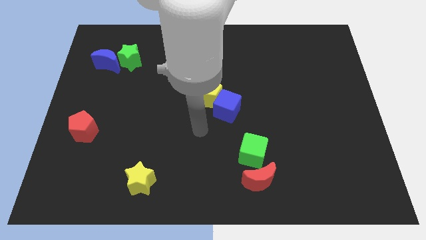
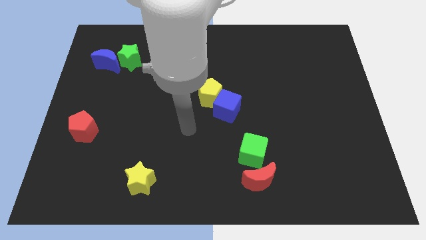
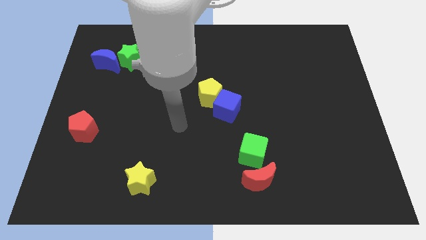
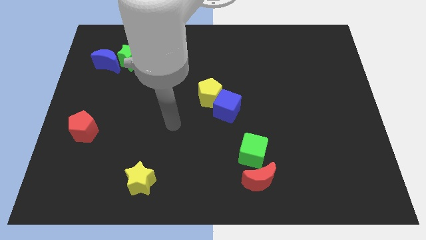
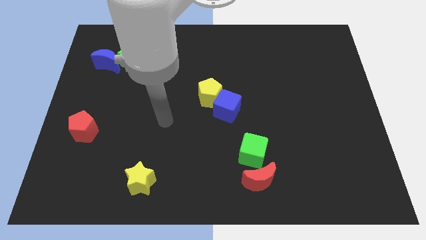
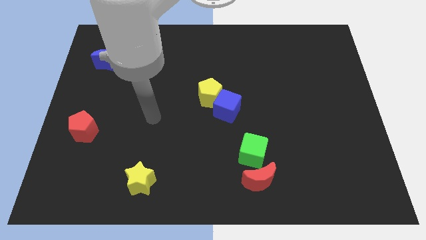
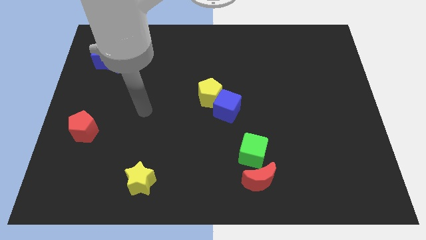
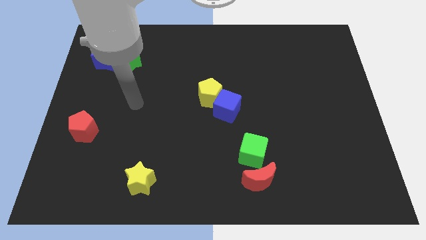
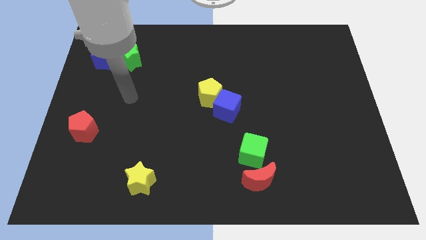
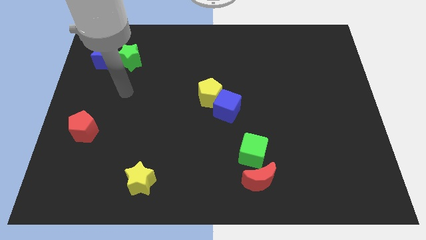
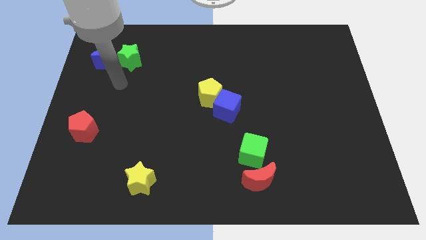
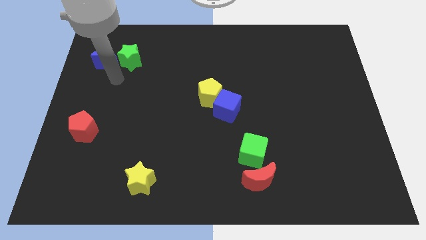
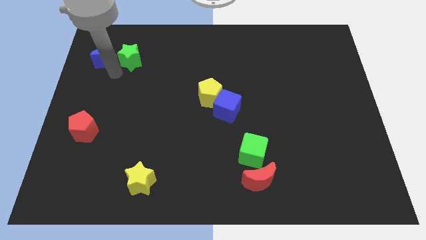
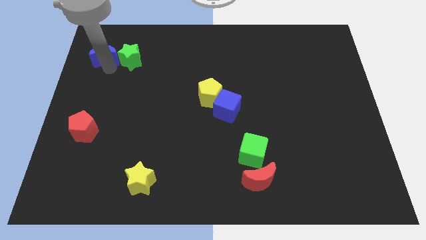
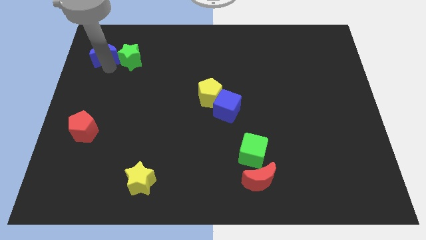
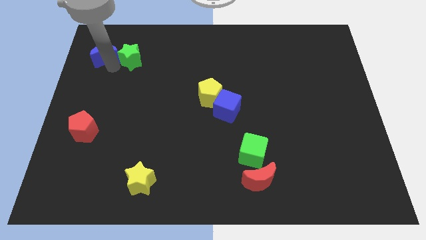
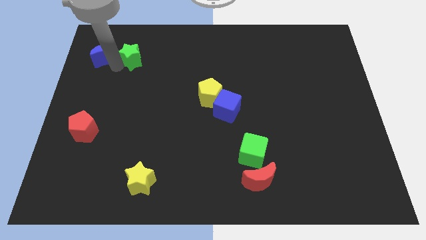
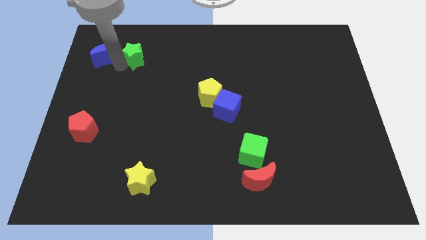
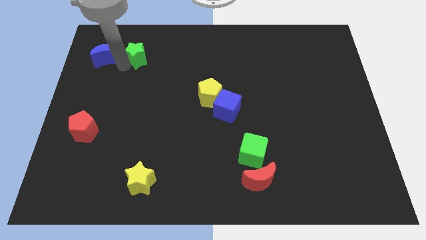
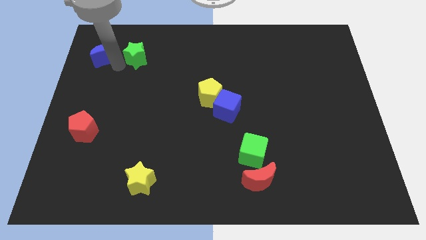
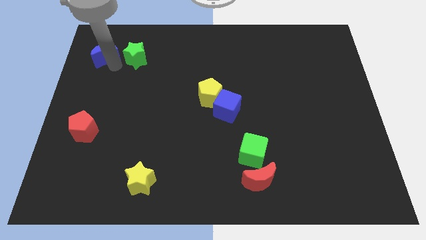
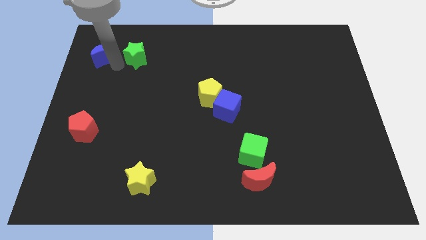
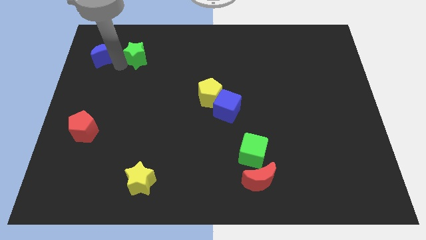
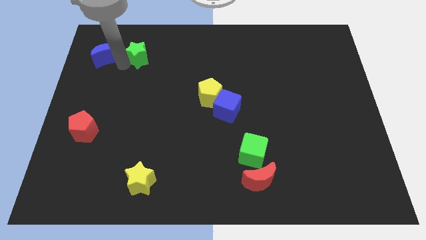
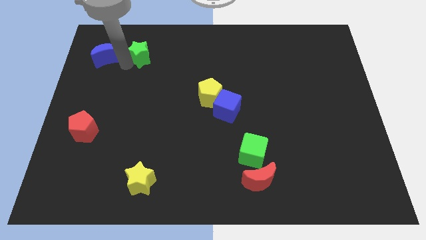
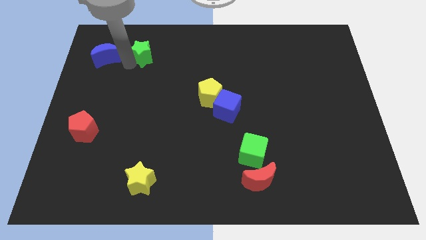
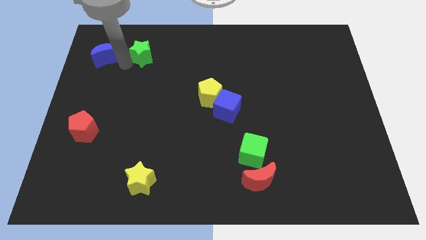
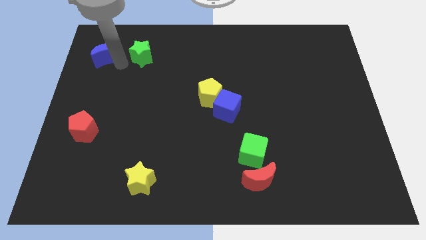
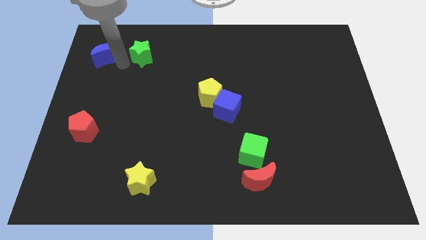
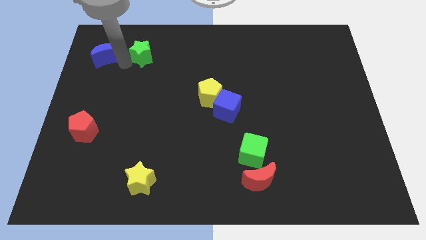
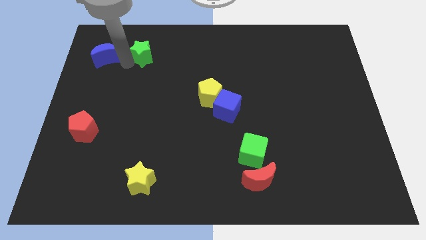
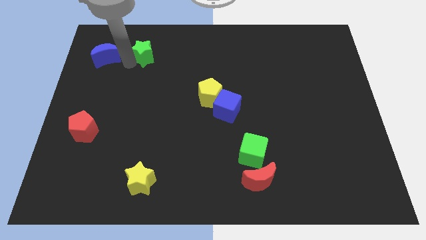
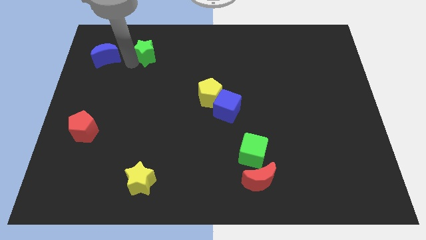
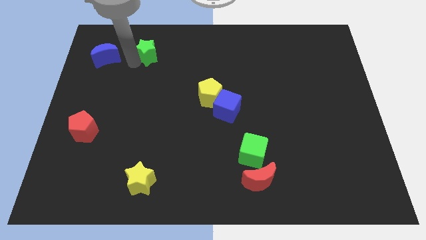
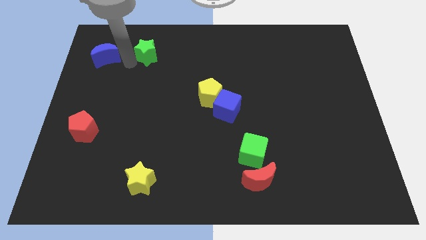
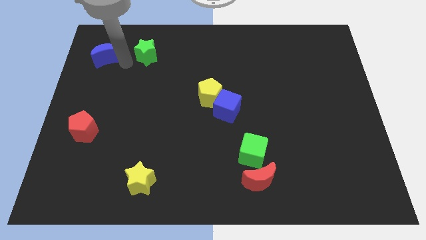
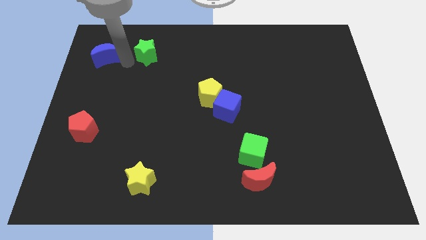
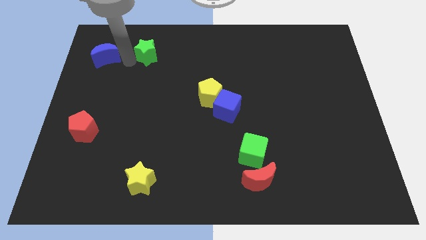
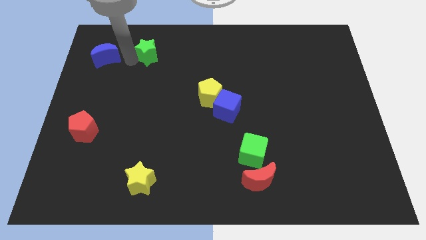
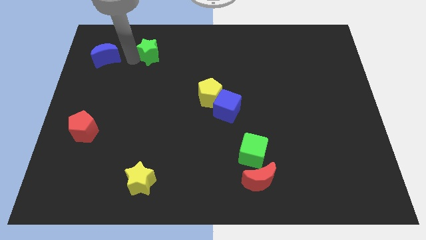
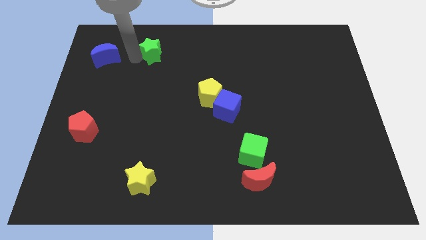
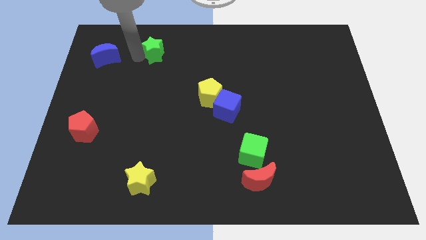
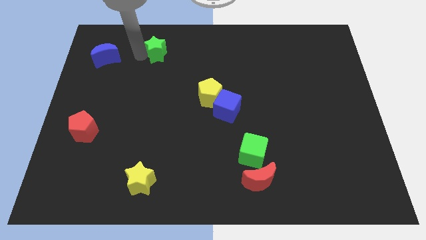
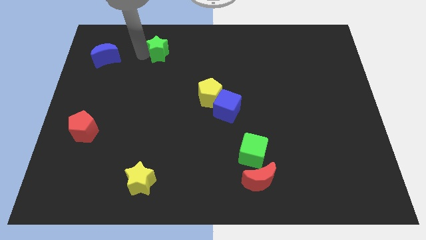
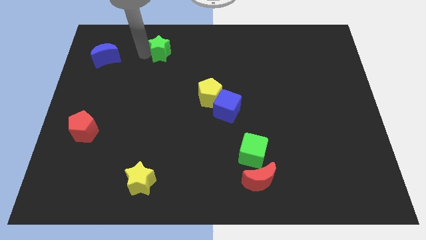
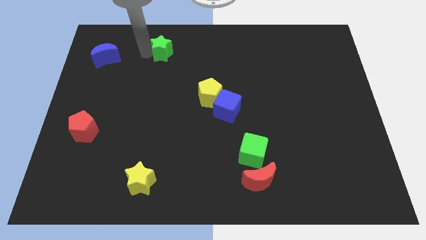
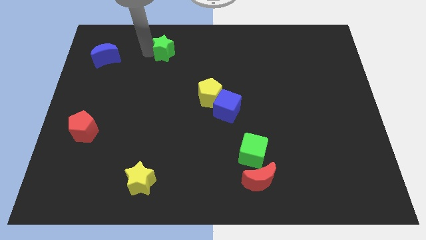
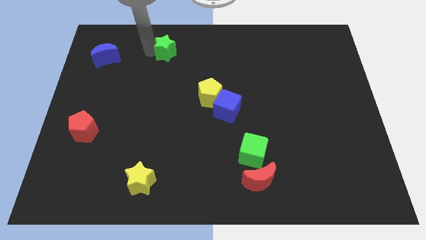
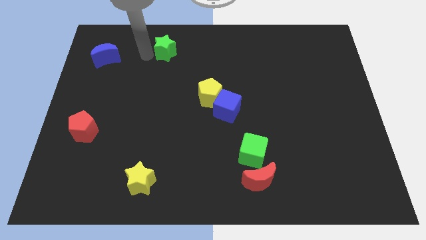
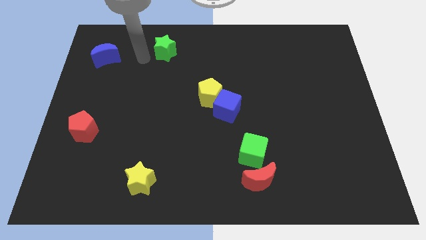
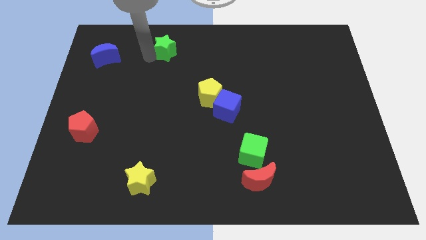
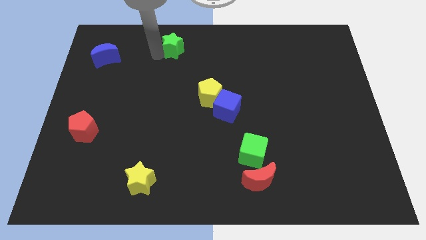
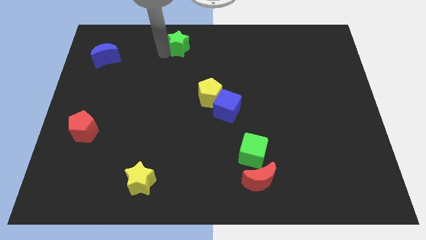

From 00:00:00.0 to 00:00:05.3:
move the green star to the top side

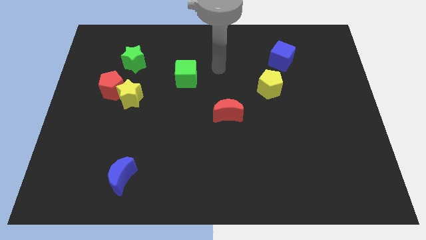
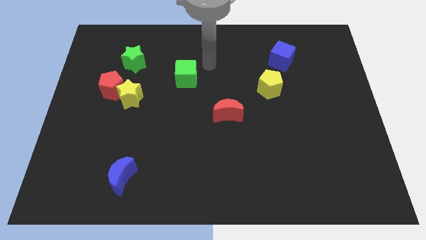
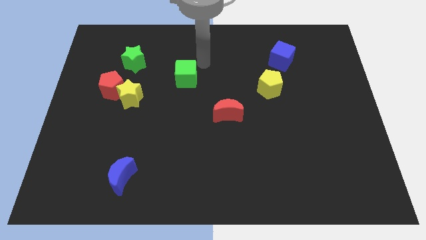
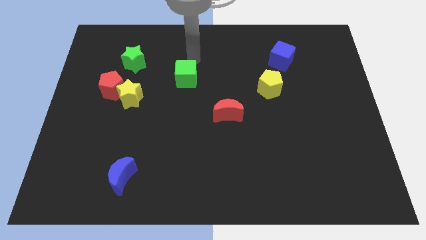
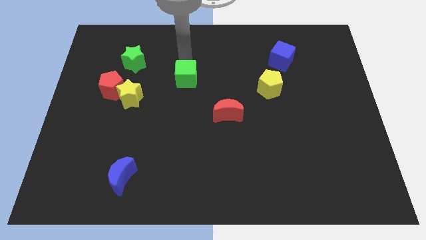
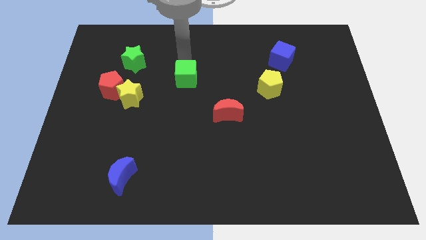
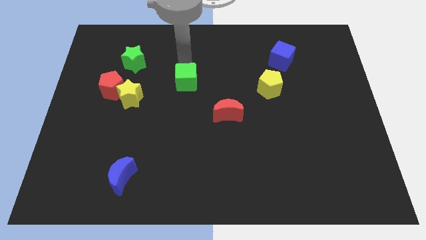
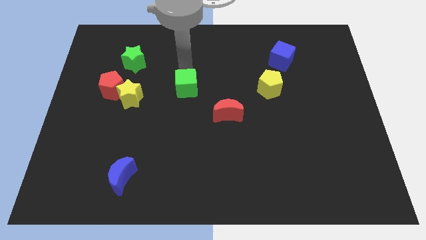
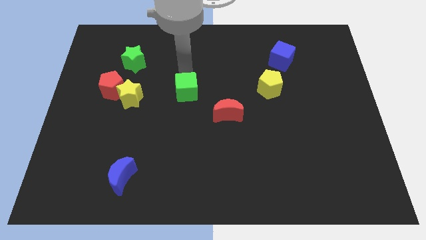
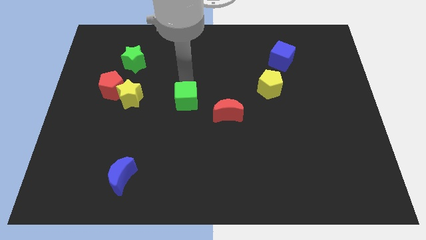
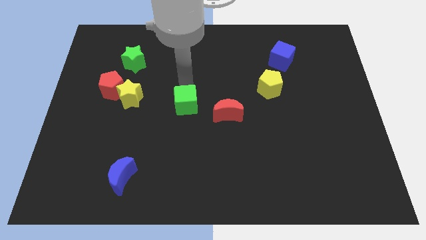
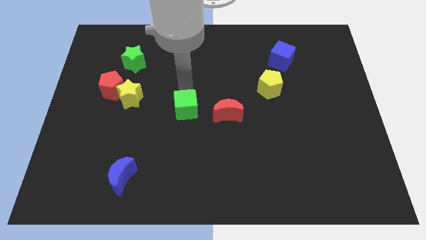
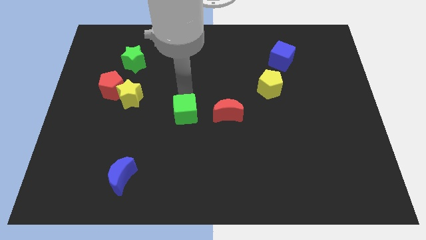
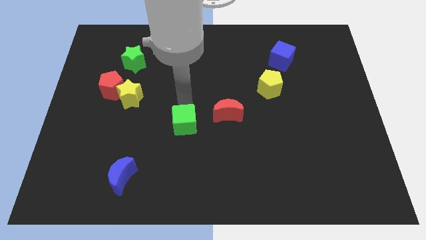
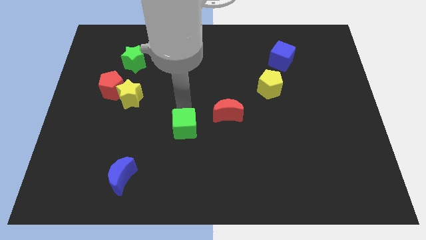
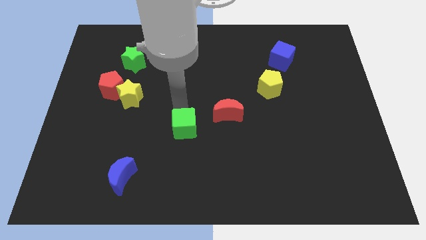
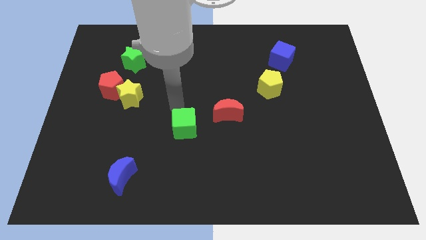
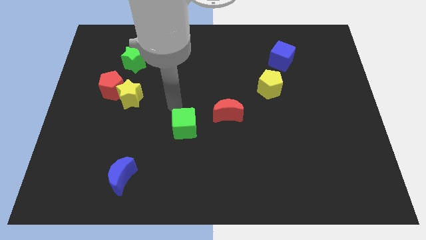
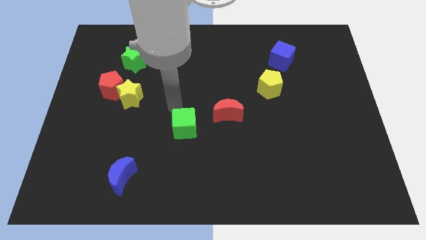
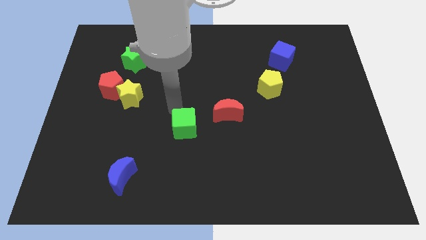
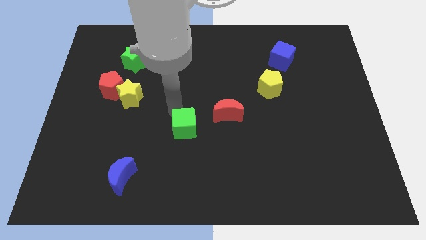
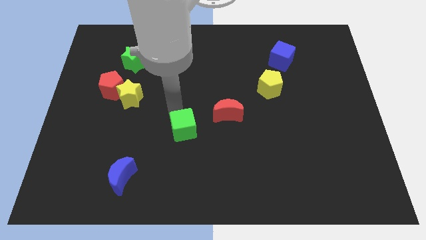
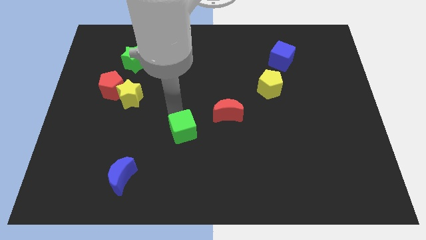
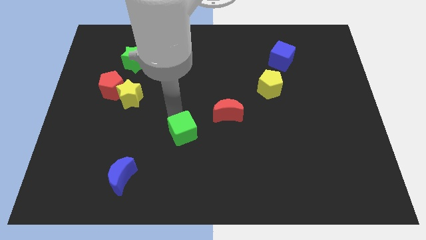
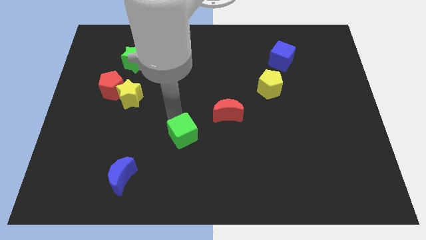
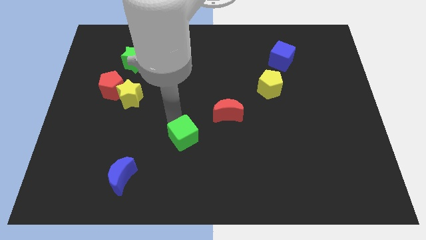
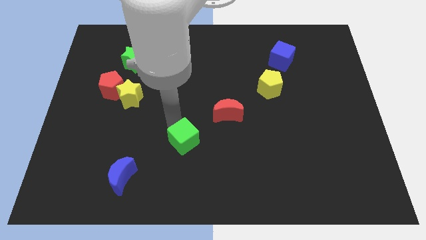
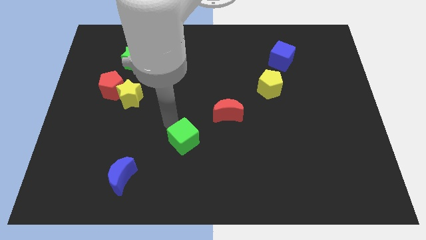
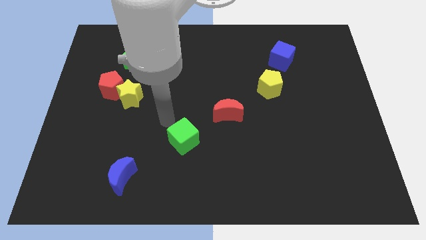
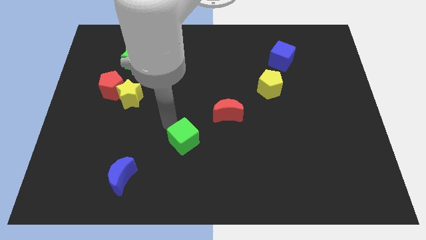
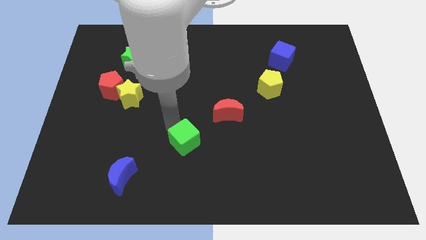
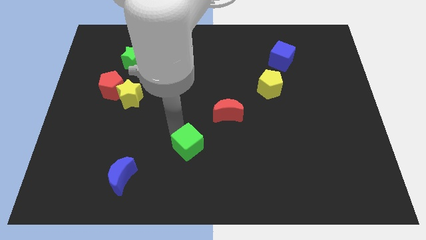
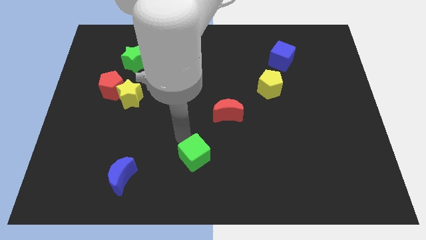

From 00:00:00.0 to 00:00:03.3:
slide the green cube to the bottom
